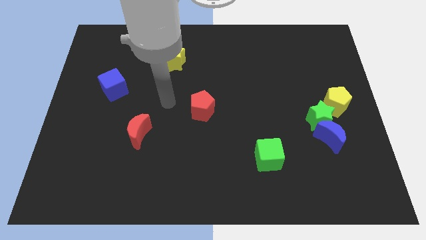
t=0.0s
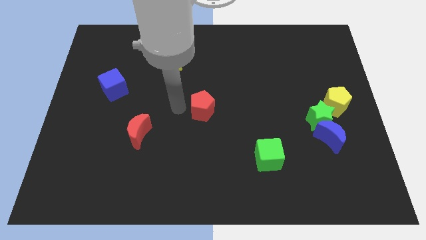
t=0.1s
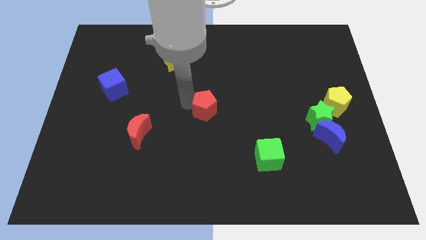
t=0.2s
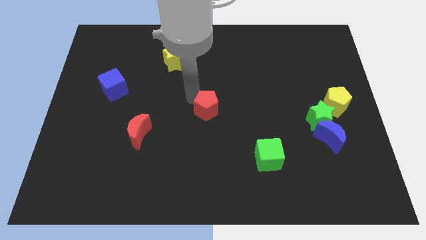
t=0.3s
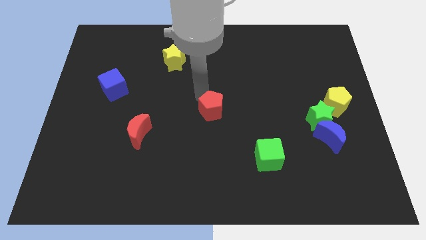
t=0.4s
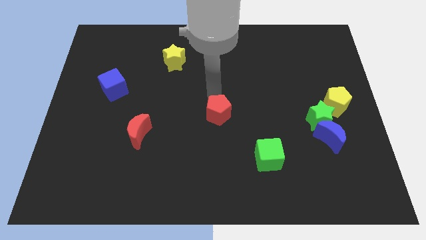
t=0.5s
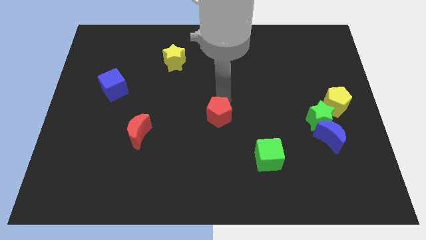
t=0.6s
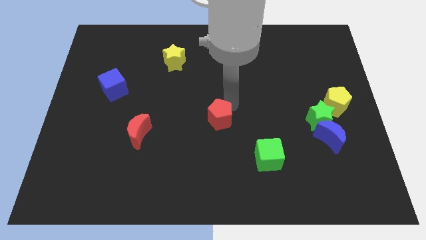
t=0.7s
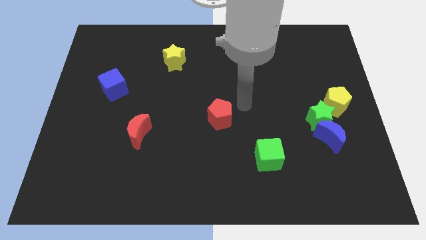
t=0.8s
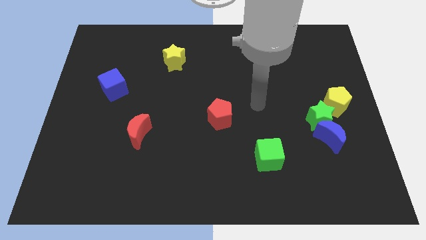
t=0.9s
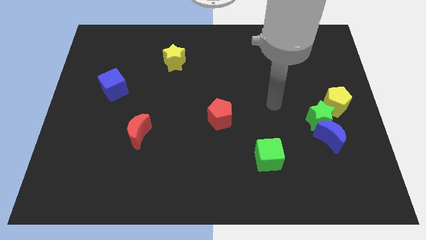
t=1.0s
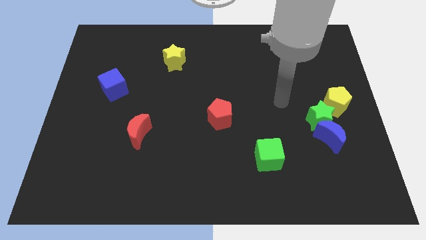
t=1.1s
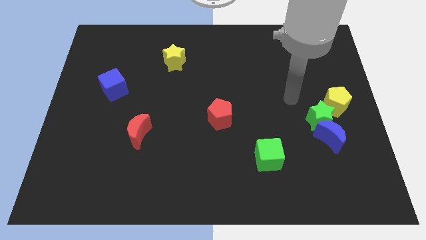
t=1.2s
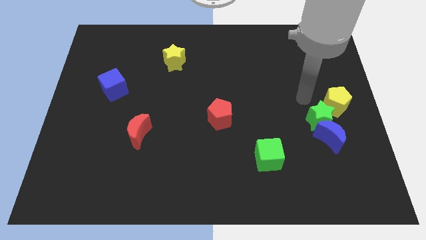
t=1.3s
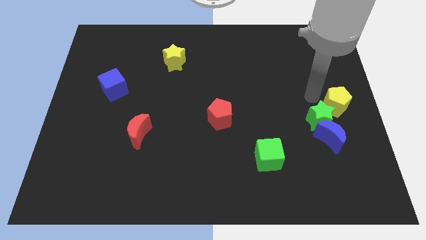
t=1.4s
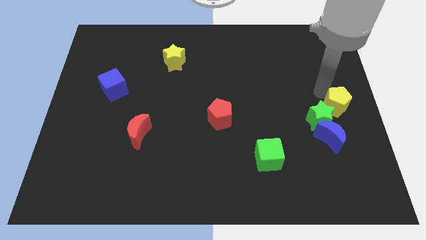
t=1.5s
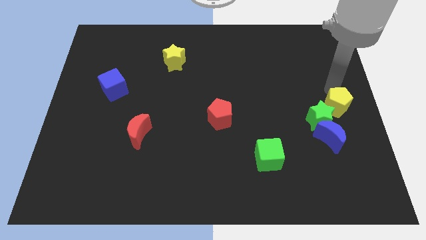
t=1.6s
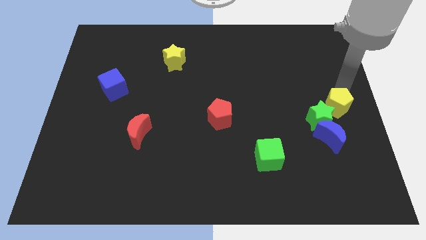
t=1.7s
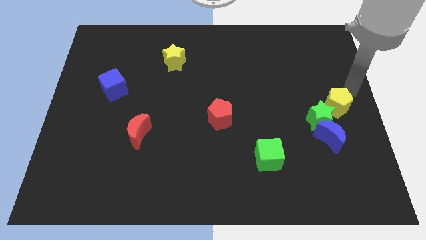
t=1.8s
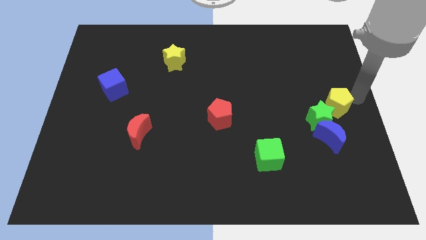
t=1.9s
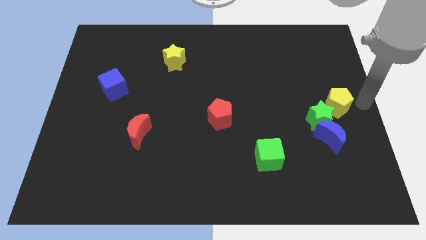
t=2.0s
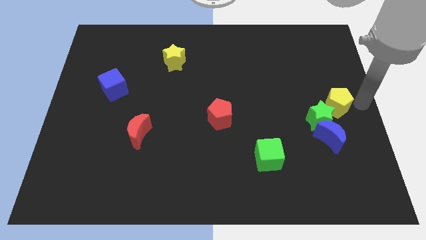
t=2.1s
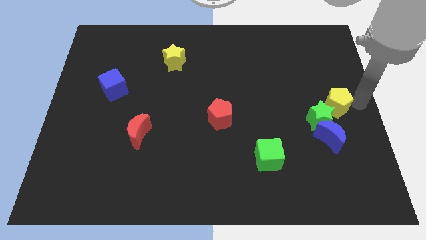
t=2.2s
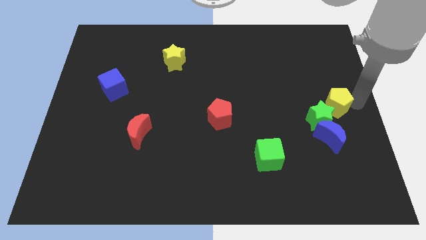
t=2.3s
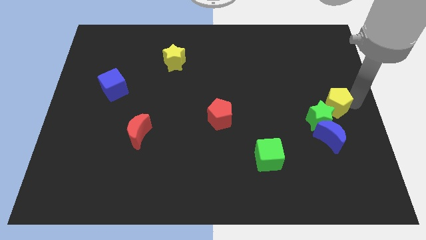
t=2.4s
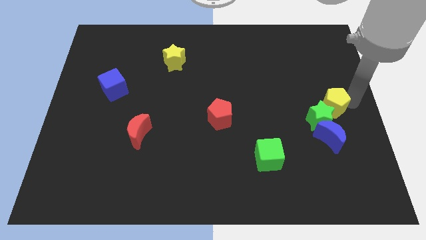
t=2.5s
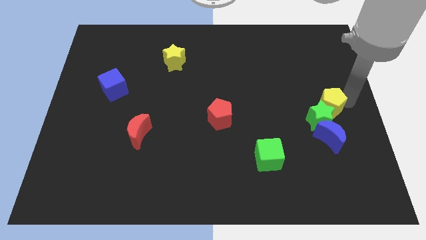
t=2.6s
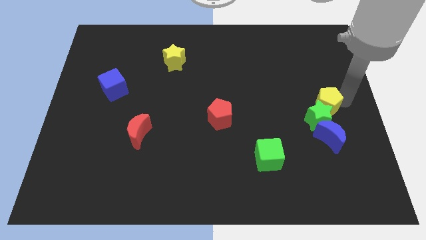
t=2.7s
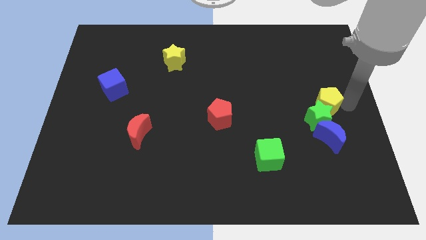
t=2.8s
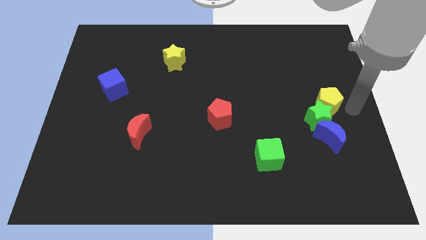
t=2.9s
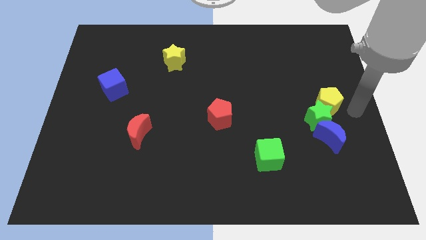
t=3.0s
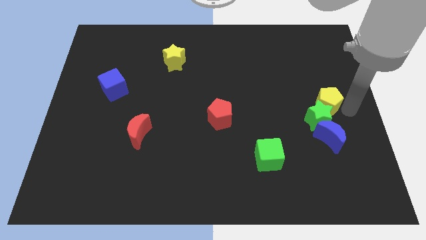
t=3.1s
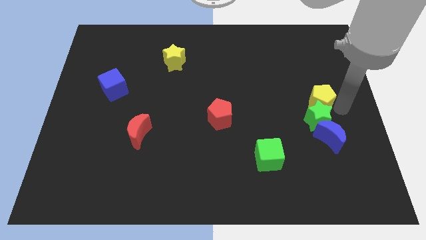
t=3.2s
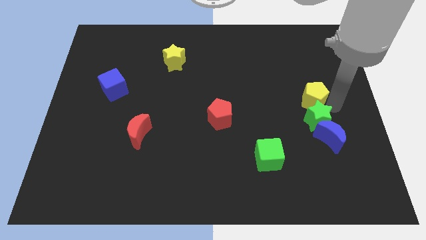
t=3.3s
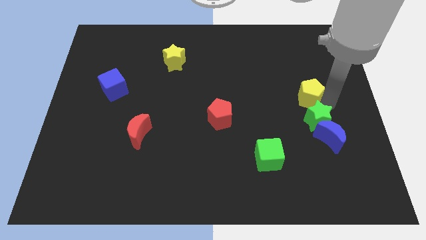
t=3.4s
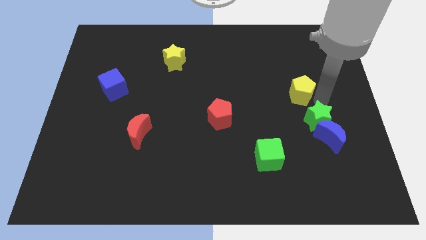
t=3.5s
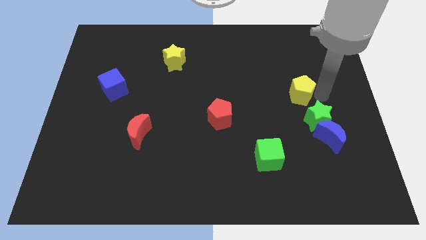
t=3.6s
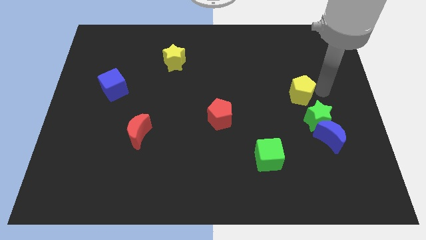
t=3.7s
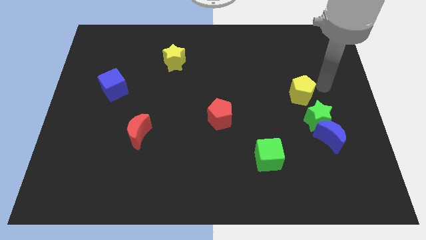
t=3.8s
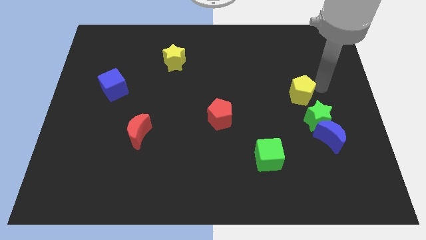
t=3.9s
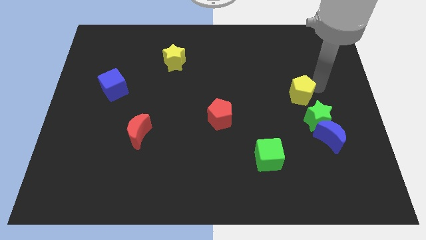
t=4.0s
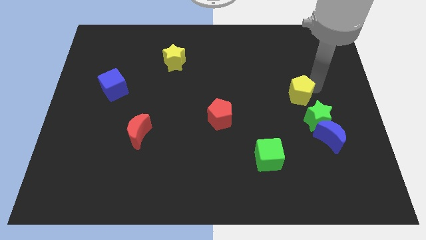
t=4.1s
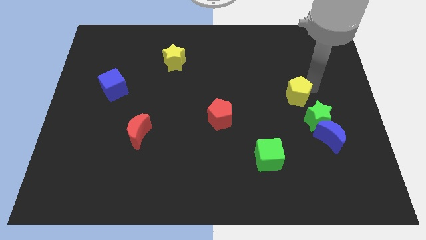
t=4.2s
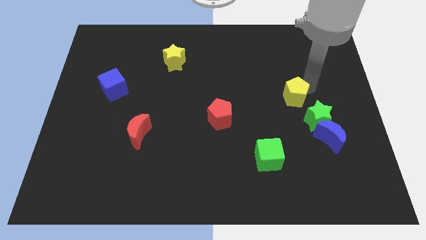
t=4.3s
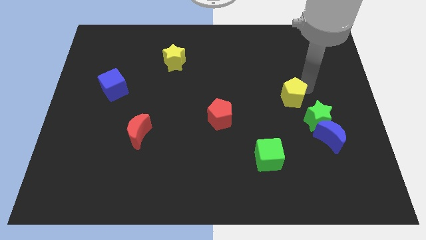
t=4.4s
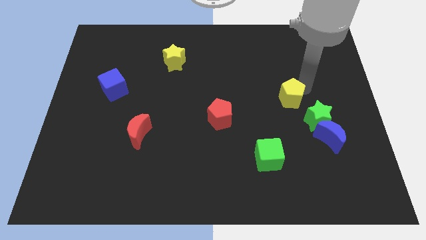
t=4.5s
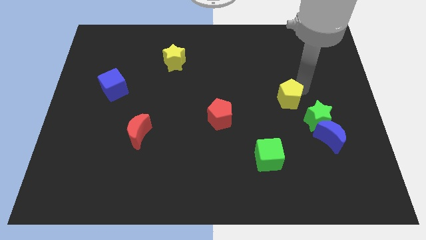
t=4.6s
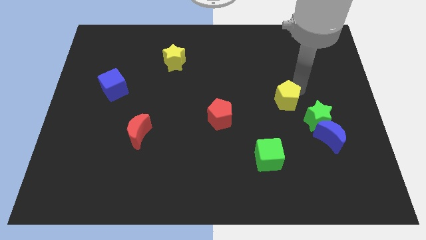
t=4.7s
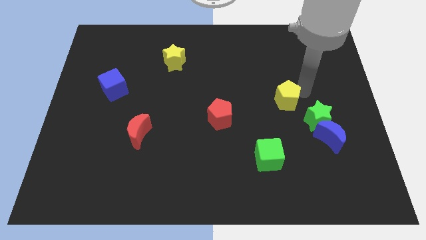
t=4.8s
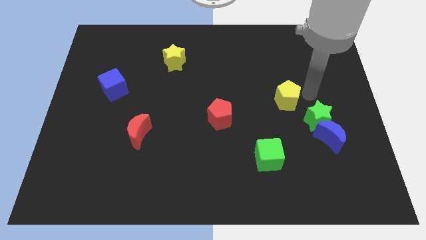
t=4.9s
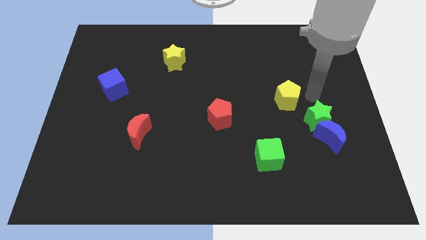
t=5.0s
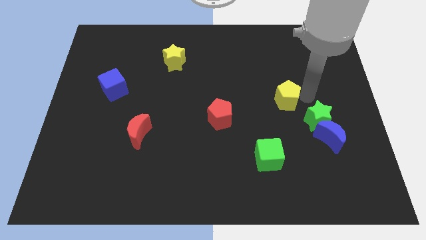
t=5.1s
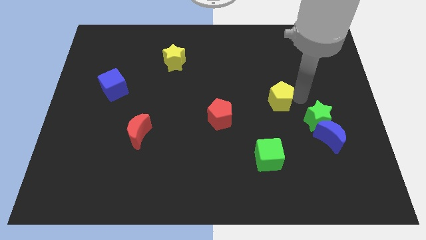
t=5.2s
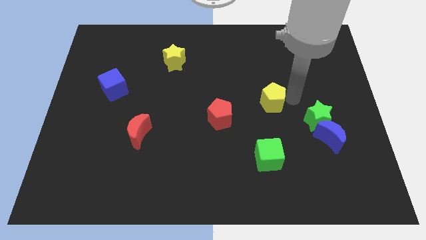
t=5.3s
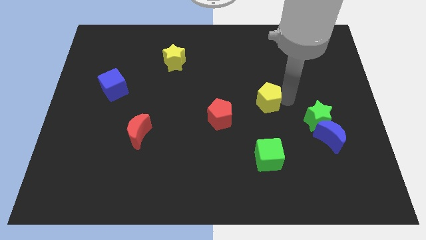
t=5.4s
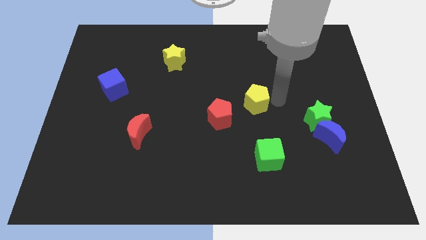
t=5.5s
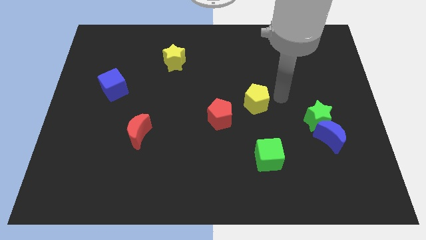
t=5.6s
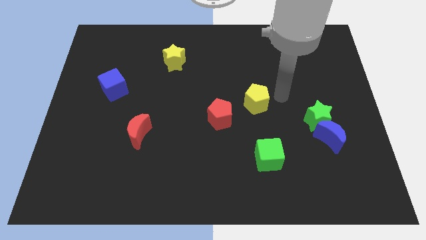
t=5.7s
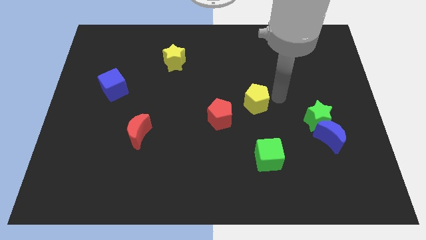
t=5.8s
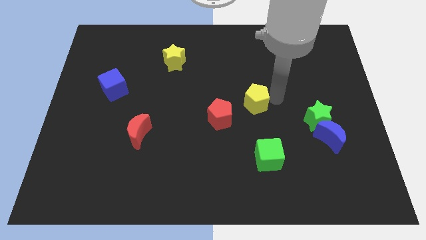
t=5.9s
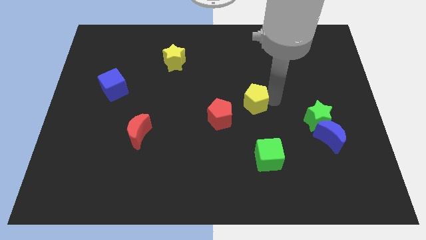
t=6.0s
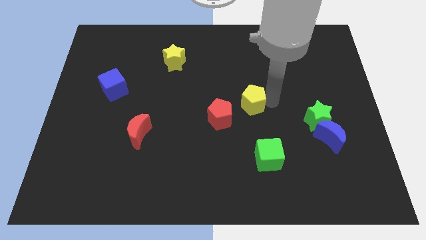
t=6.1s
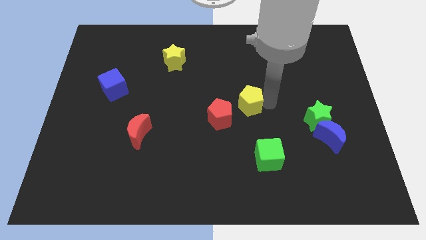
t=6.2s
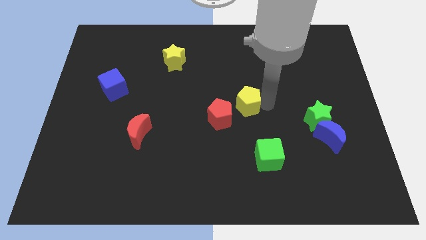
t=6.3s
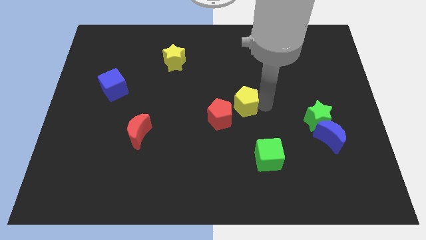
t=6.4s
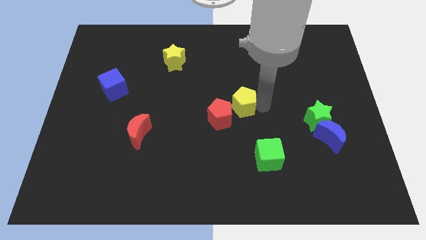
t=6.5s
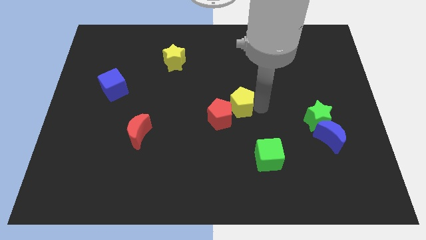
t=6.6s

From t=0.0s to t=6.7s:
put the yellow pentagon next to the red pentagon
